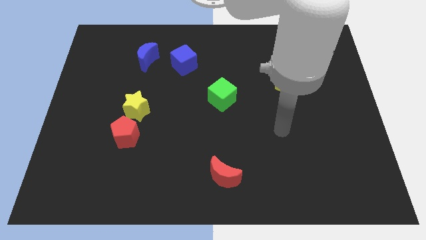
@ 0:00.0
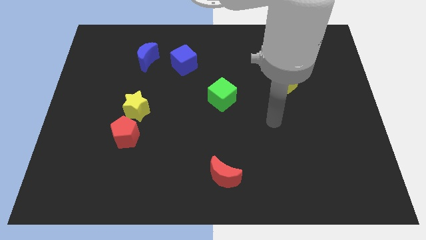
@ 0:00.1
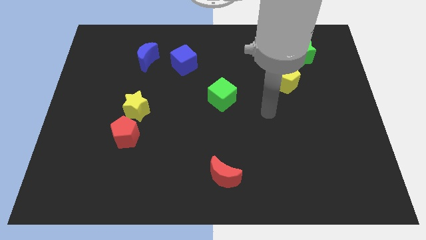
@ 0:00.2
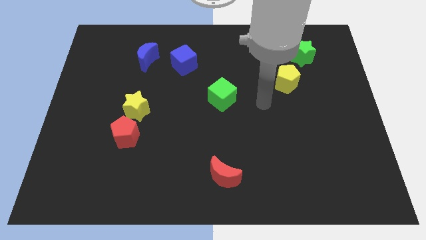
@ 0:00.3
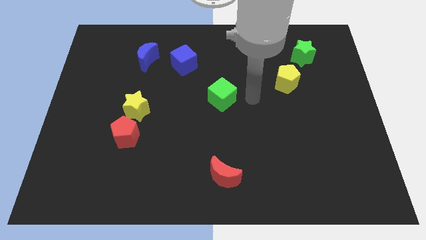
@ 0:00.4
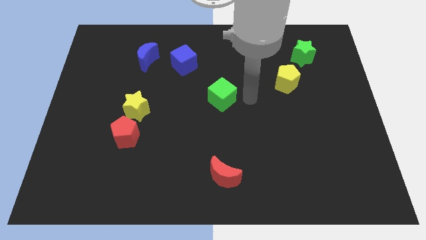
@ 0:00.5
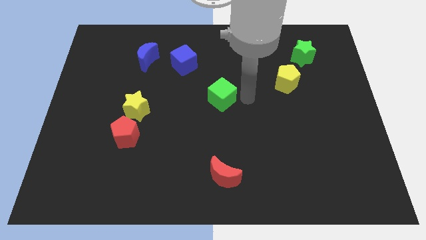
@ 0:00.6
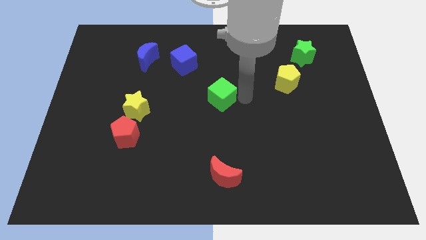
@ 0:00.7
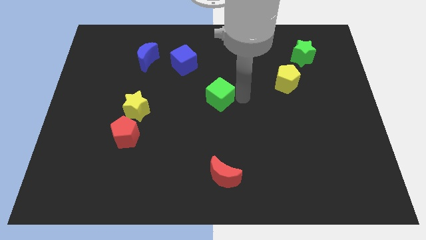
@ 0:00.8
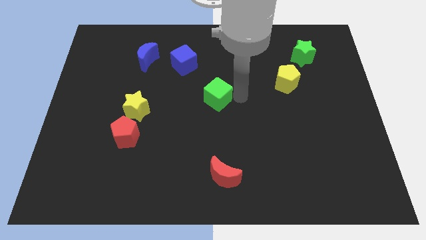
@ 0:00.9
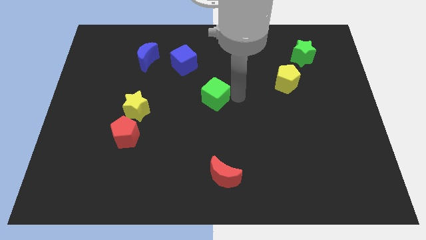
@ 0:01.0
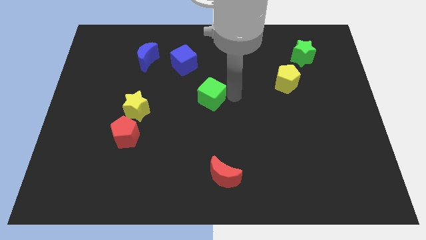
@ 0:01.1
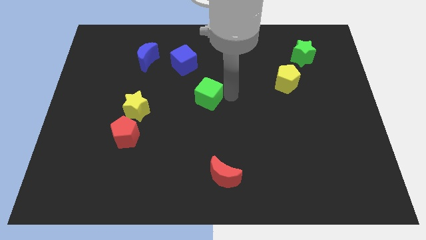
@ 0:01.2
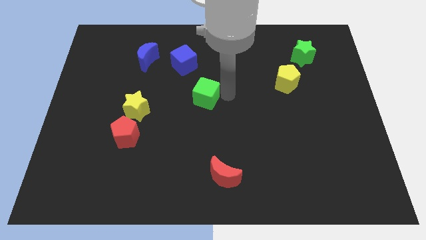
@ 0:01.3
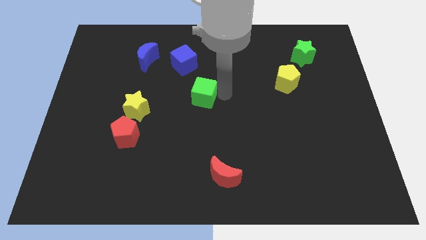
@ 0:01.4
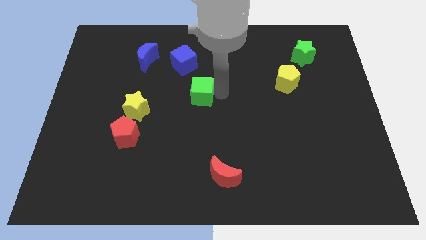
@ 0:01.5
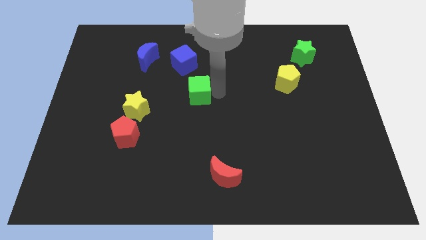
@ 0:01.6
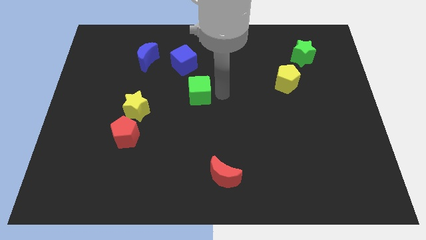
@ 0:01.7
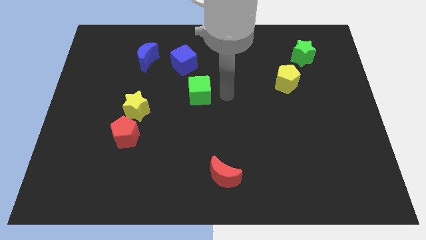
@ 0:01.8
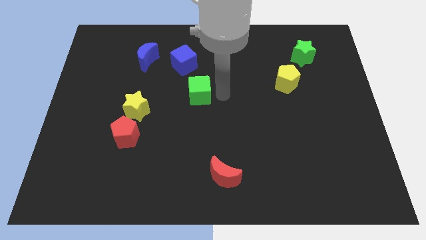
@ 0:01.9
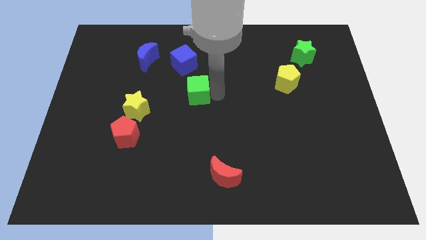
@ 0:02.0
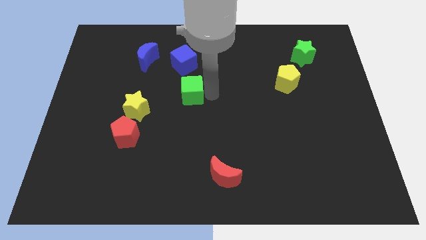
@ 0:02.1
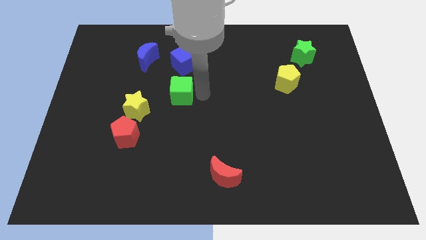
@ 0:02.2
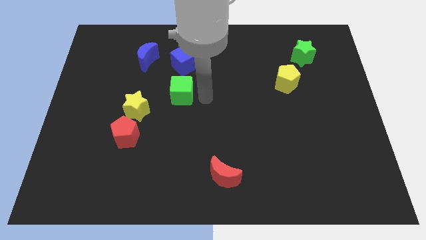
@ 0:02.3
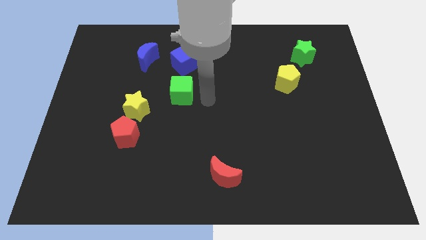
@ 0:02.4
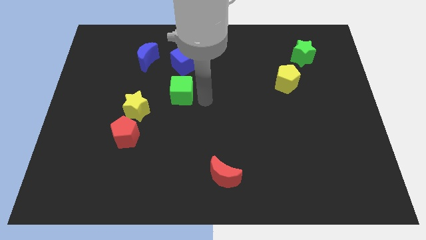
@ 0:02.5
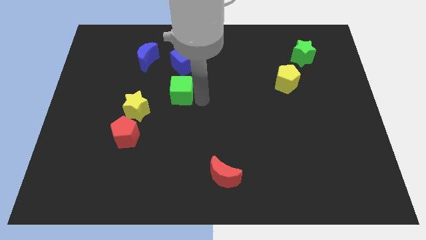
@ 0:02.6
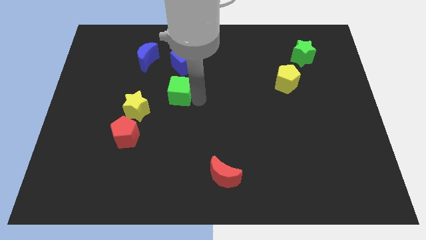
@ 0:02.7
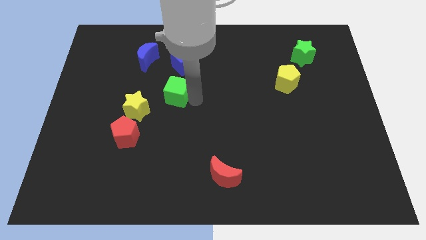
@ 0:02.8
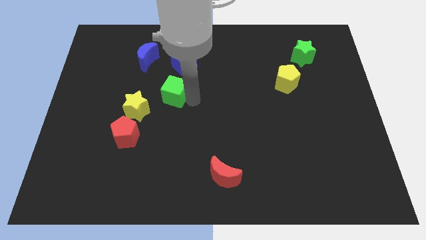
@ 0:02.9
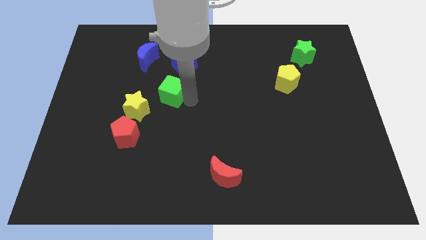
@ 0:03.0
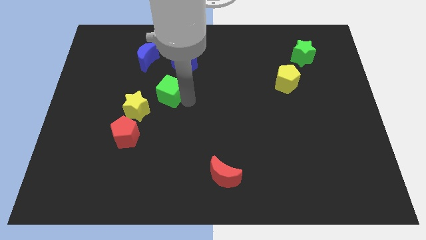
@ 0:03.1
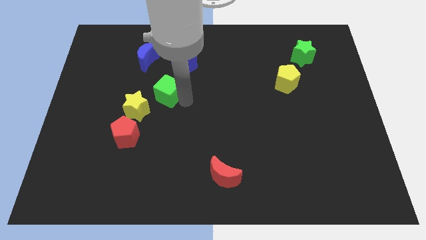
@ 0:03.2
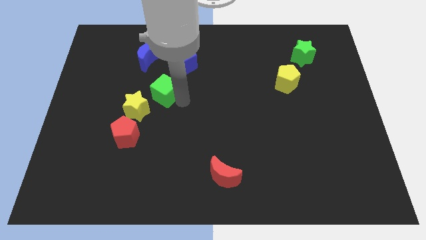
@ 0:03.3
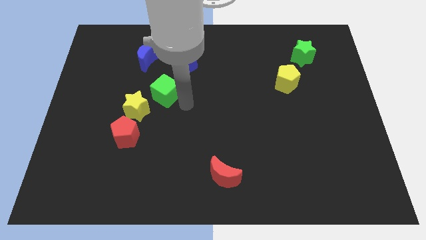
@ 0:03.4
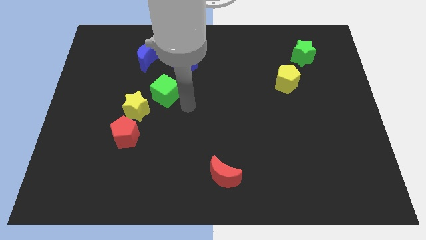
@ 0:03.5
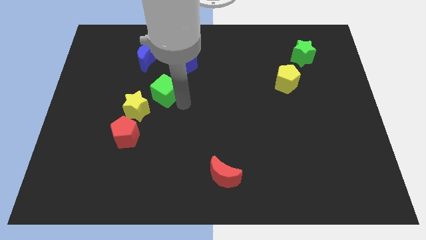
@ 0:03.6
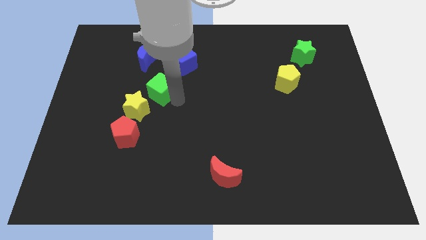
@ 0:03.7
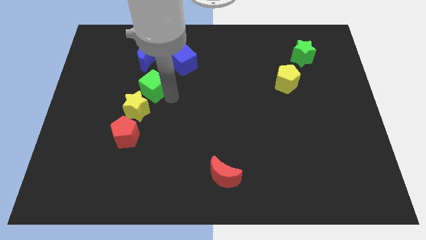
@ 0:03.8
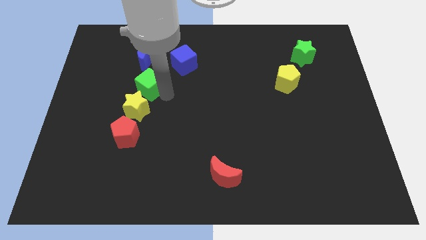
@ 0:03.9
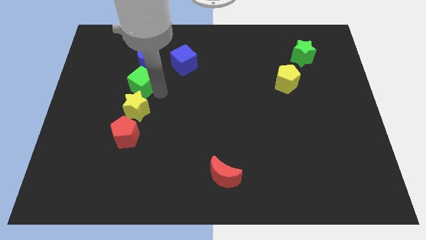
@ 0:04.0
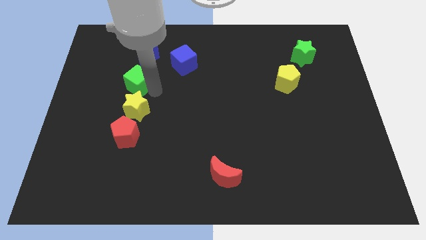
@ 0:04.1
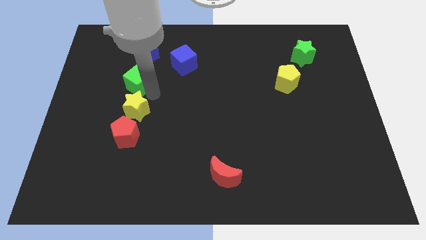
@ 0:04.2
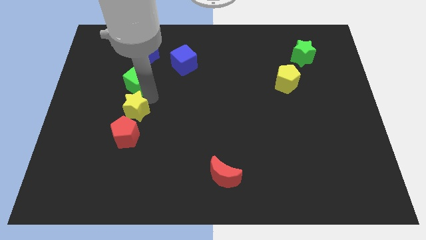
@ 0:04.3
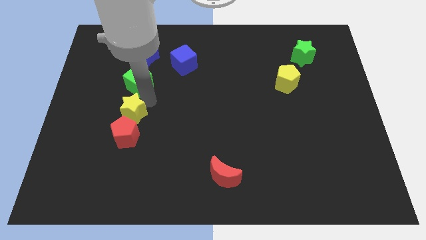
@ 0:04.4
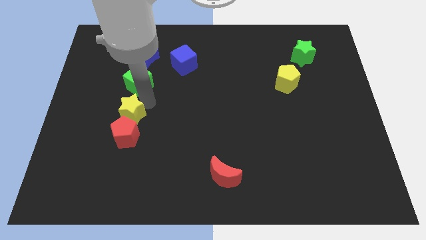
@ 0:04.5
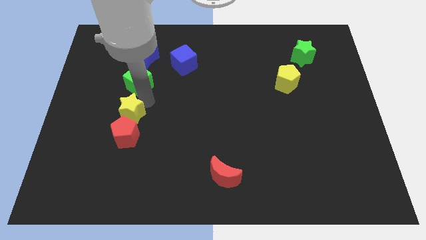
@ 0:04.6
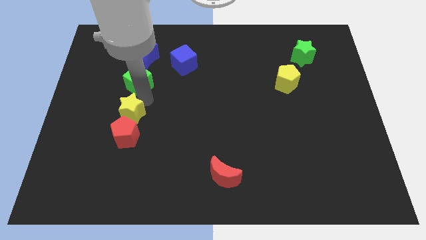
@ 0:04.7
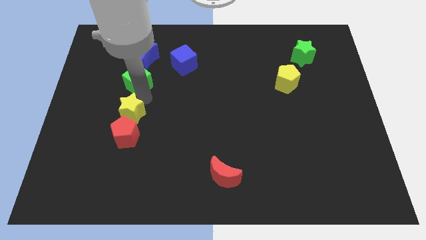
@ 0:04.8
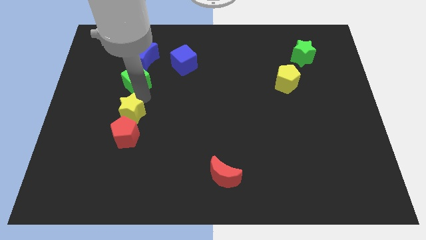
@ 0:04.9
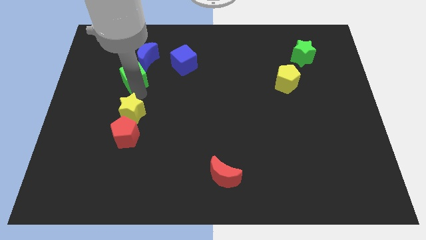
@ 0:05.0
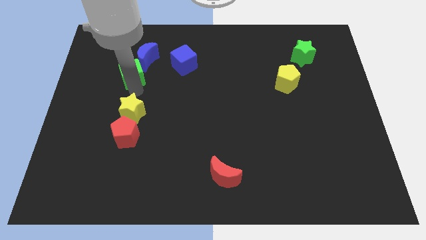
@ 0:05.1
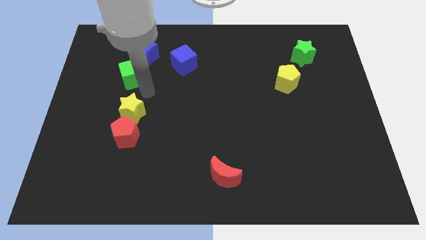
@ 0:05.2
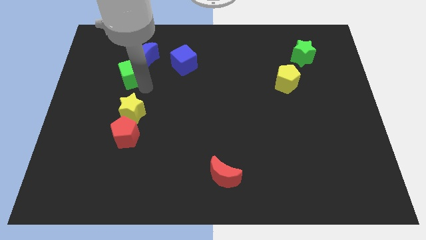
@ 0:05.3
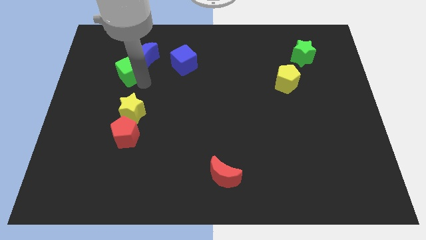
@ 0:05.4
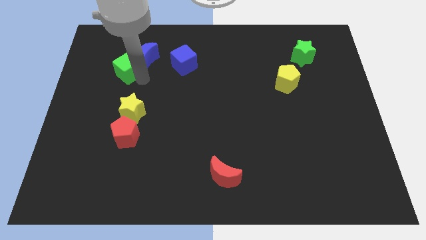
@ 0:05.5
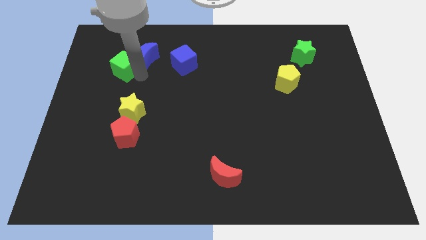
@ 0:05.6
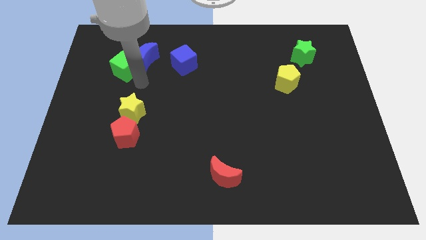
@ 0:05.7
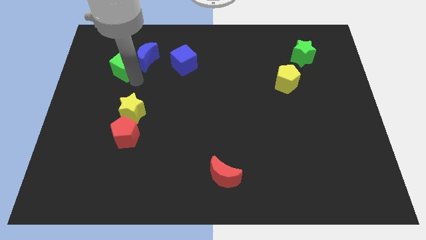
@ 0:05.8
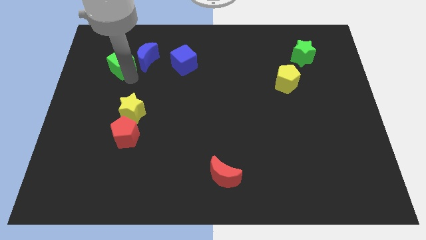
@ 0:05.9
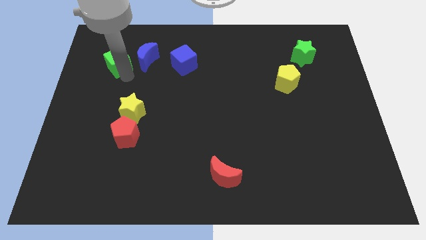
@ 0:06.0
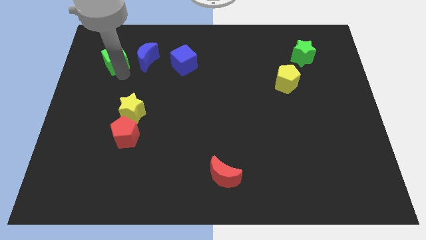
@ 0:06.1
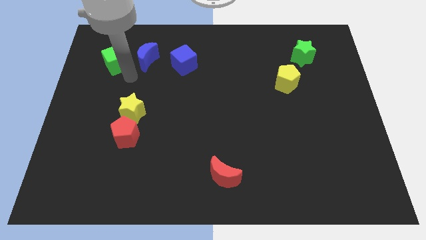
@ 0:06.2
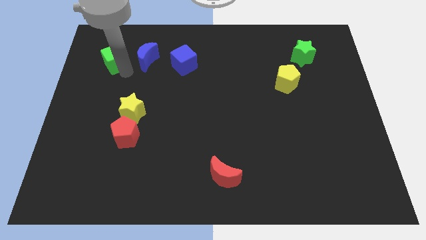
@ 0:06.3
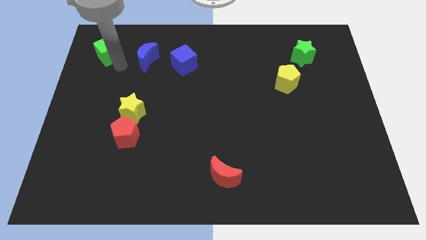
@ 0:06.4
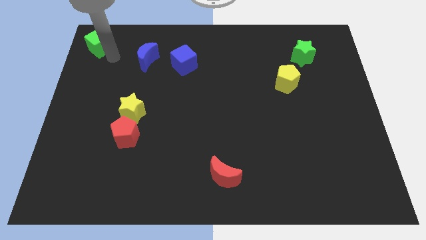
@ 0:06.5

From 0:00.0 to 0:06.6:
push the green cube to the top left of the board
